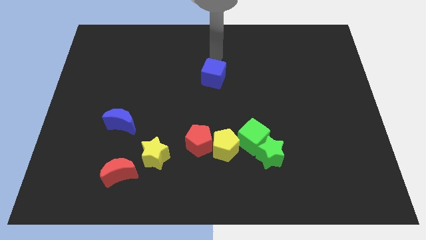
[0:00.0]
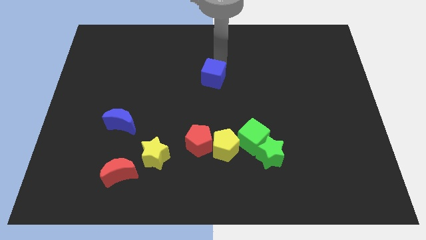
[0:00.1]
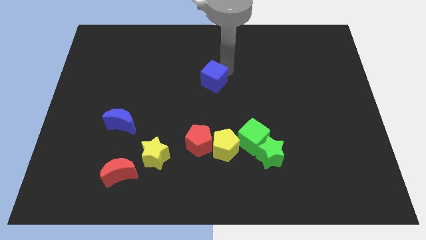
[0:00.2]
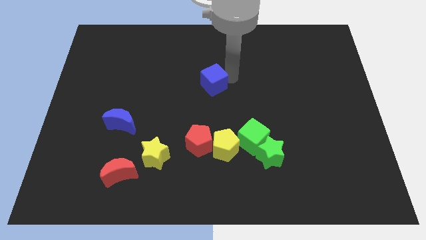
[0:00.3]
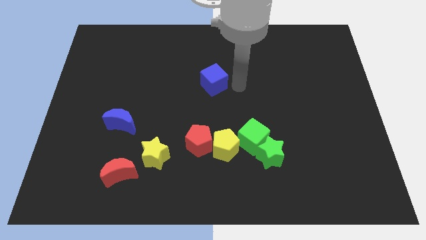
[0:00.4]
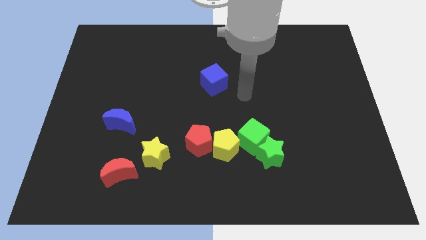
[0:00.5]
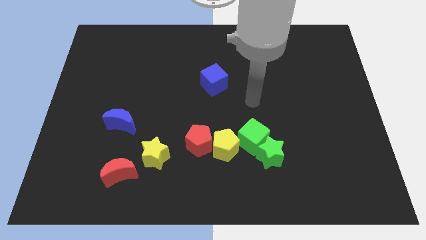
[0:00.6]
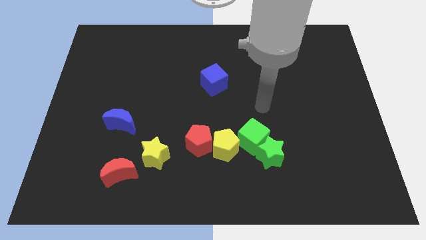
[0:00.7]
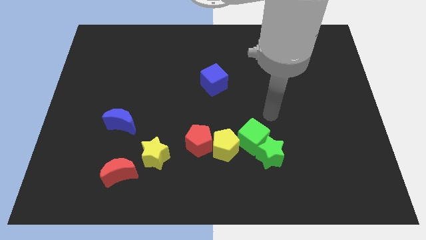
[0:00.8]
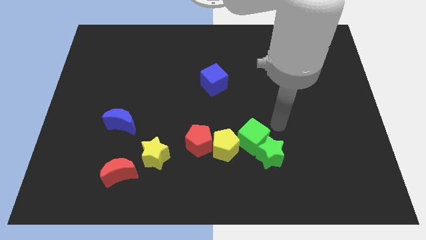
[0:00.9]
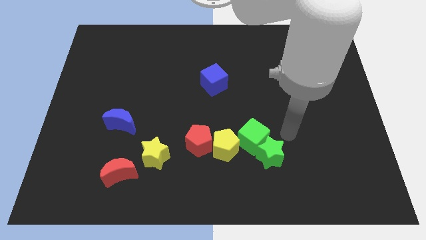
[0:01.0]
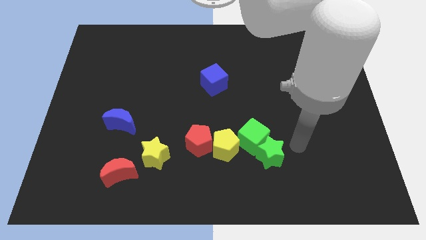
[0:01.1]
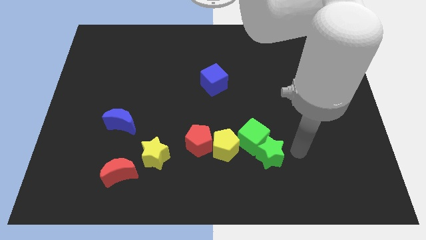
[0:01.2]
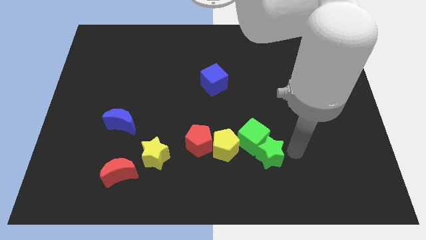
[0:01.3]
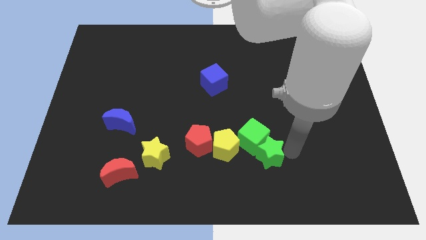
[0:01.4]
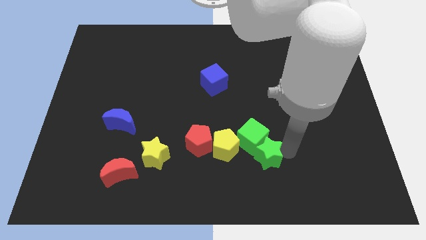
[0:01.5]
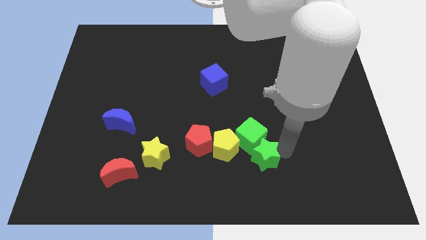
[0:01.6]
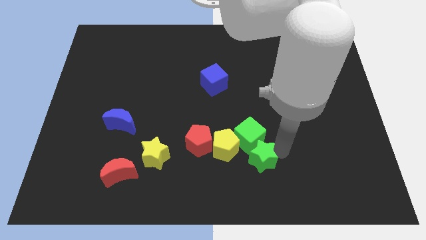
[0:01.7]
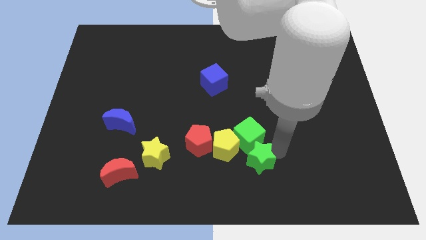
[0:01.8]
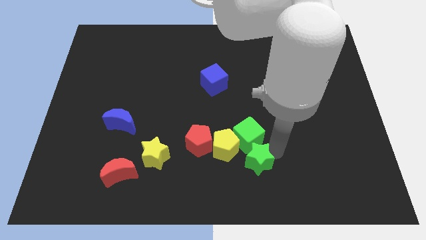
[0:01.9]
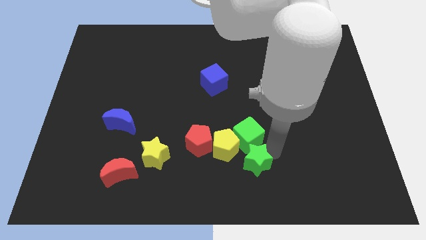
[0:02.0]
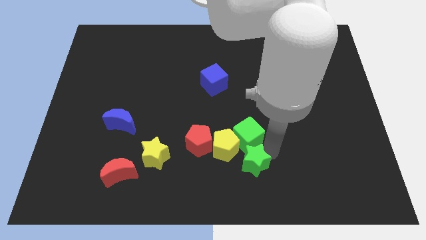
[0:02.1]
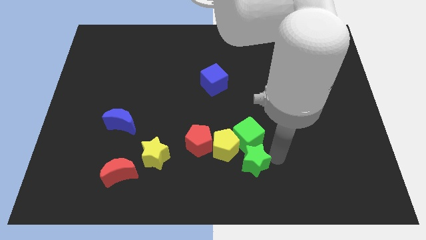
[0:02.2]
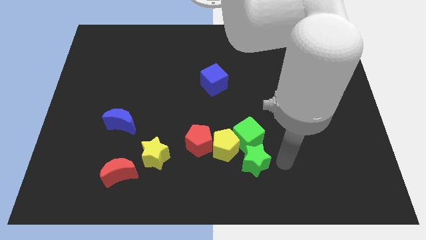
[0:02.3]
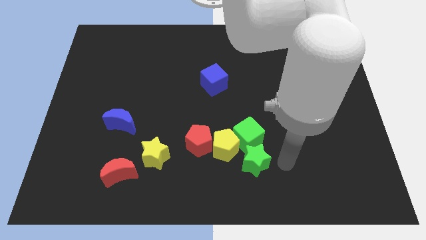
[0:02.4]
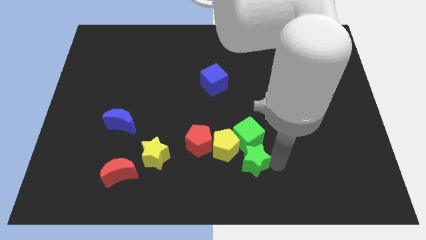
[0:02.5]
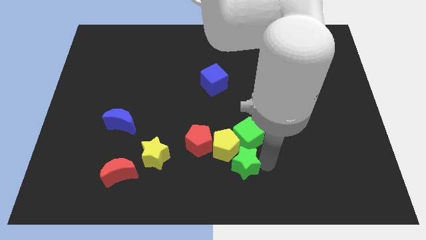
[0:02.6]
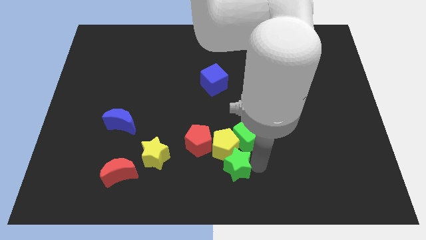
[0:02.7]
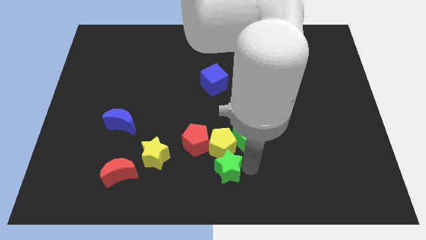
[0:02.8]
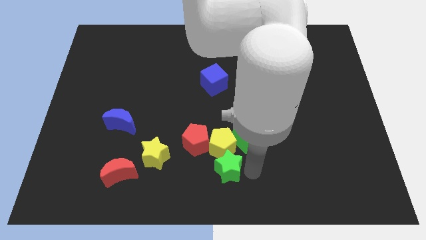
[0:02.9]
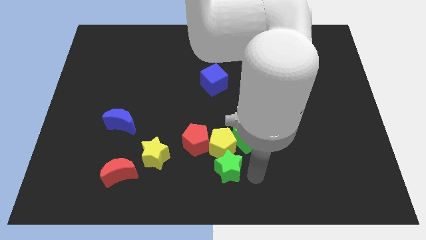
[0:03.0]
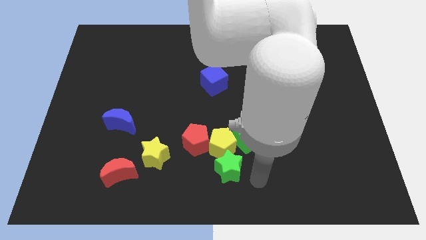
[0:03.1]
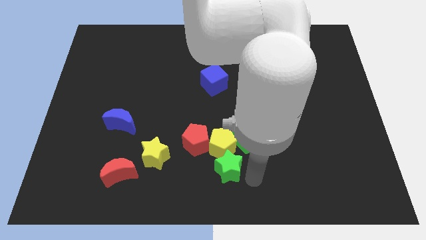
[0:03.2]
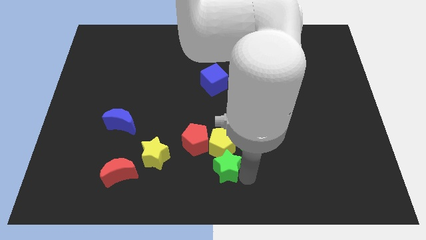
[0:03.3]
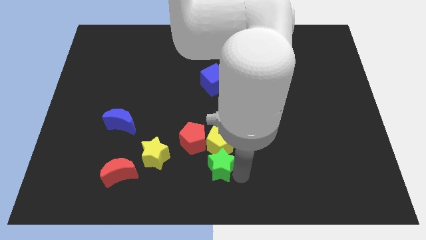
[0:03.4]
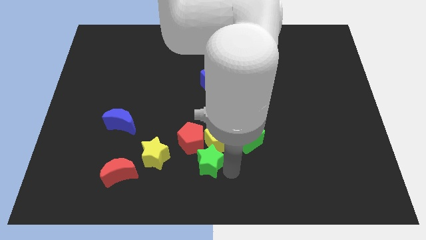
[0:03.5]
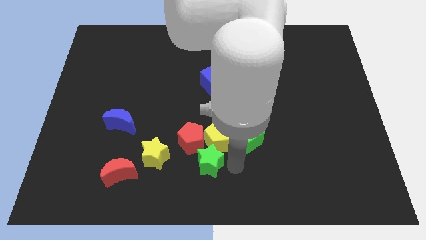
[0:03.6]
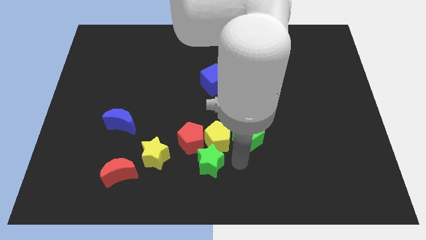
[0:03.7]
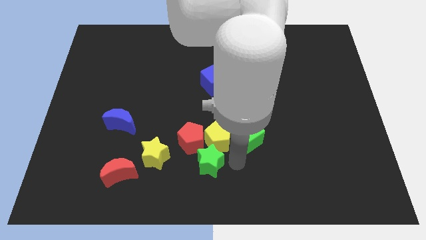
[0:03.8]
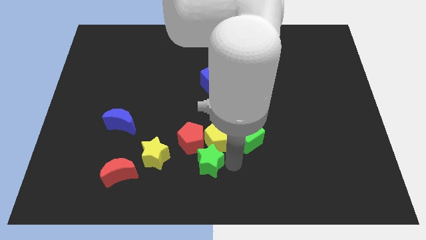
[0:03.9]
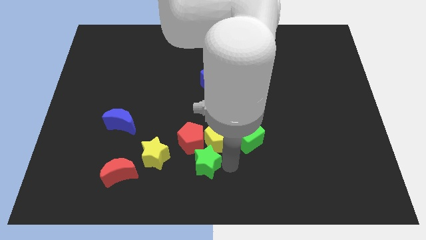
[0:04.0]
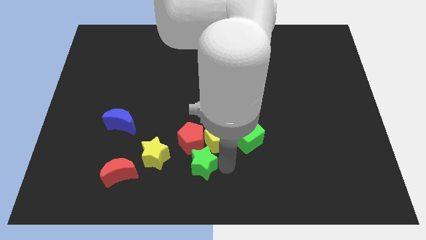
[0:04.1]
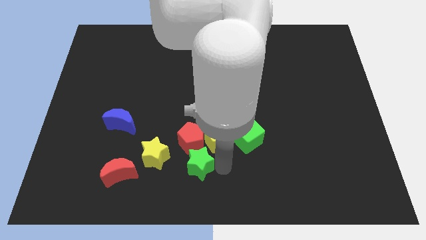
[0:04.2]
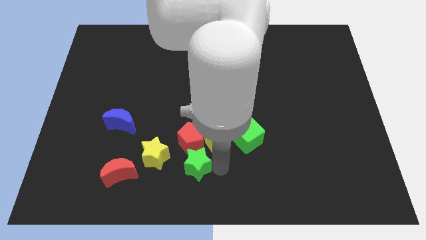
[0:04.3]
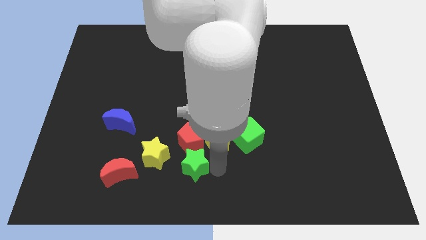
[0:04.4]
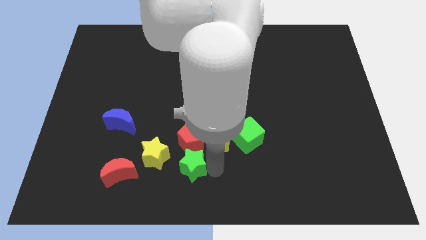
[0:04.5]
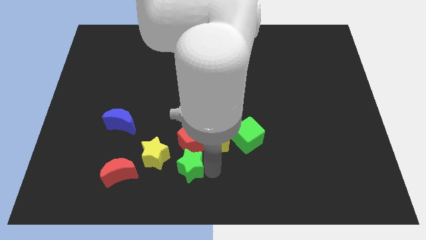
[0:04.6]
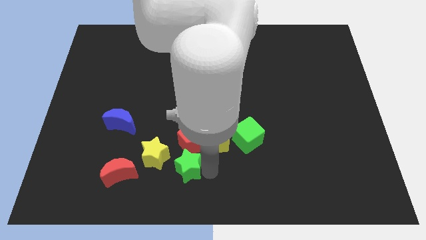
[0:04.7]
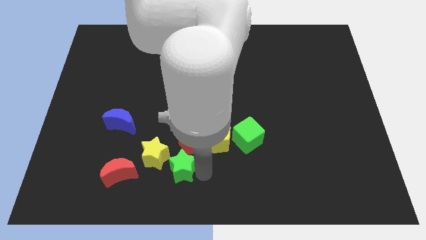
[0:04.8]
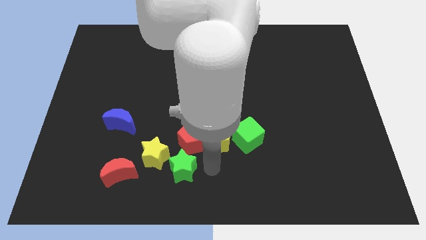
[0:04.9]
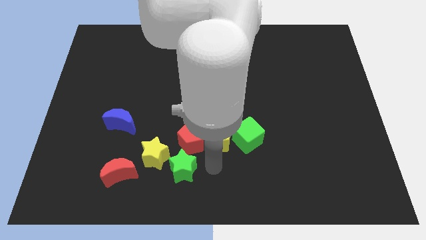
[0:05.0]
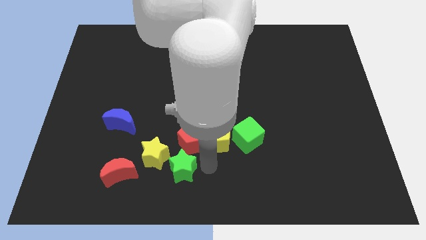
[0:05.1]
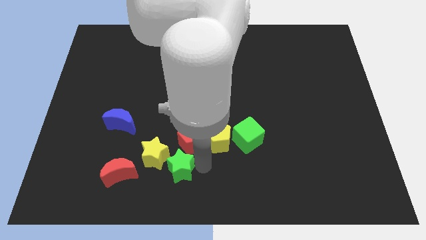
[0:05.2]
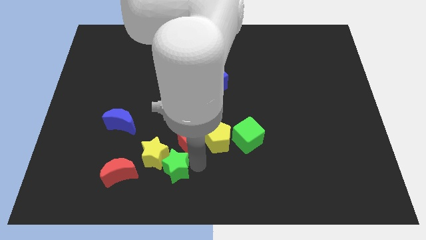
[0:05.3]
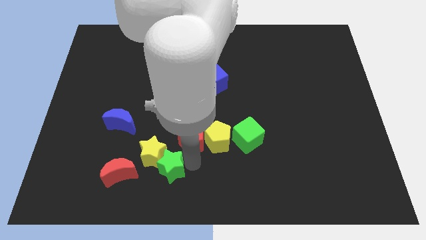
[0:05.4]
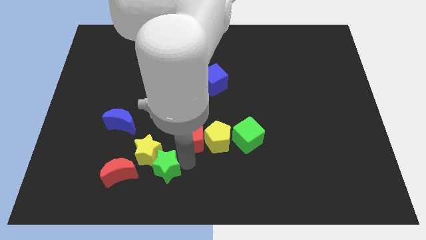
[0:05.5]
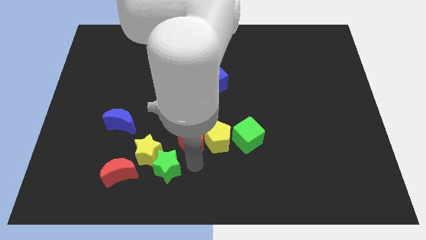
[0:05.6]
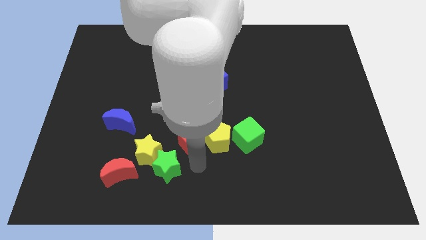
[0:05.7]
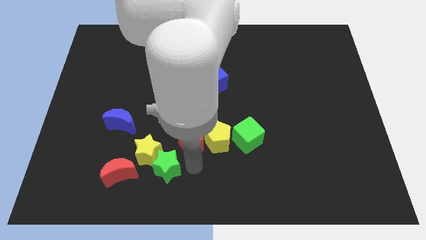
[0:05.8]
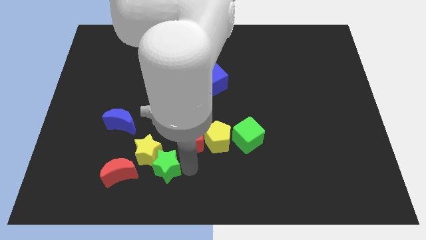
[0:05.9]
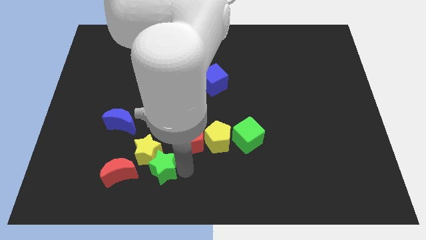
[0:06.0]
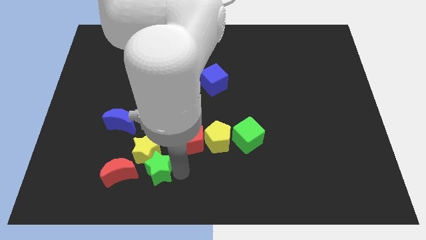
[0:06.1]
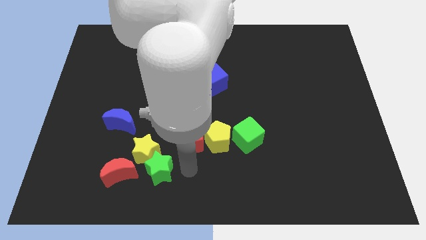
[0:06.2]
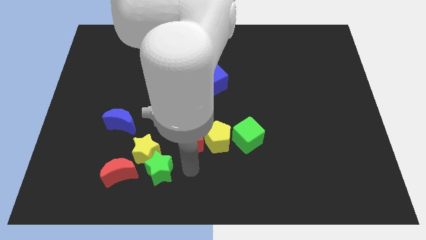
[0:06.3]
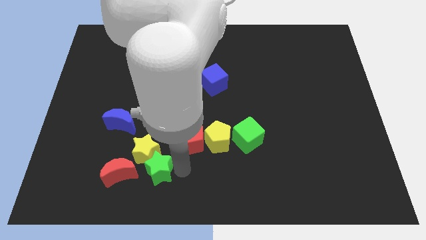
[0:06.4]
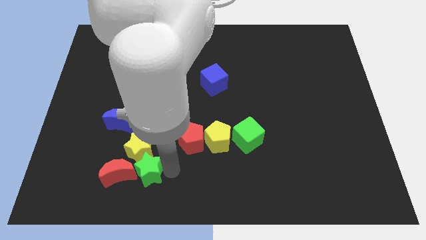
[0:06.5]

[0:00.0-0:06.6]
slide the green star to the red moon
